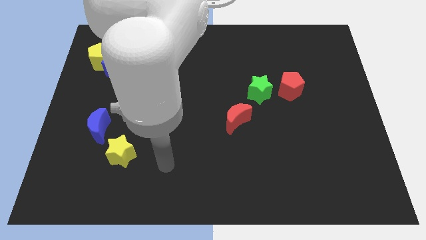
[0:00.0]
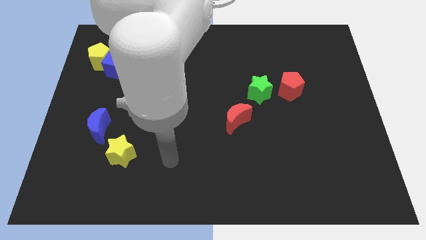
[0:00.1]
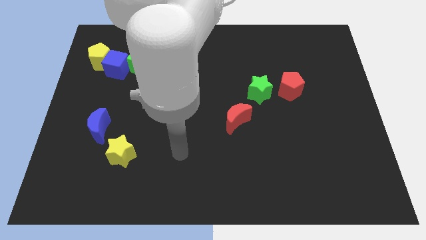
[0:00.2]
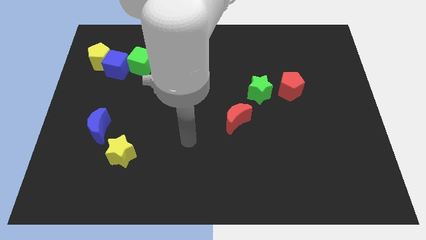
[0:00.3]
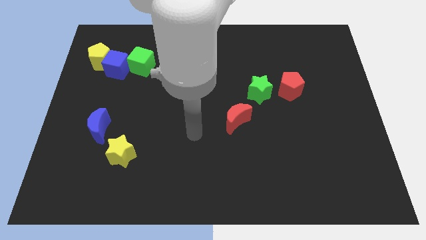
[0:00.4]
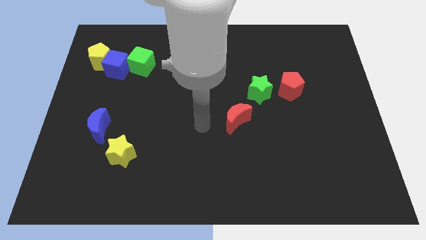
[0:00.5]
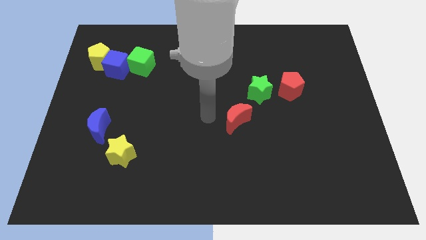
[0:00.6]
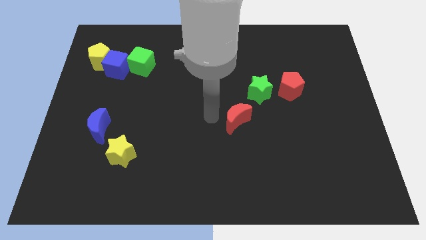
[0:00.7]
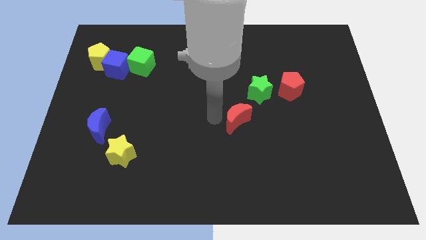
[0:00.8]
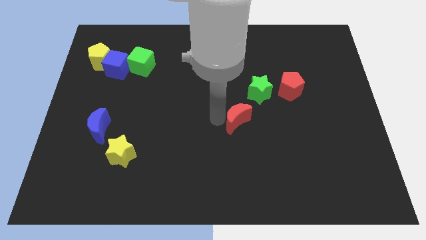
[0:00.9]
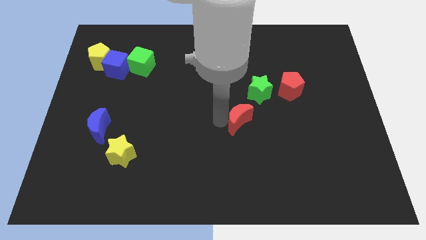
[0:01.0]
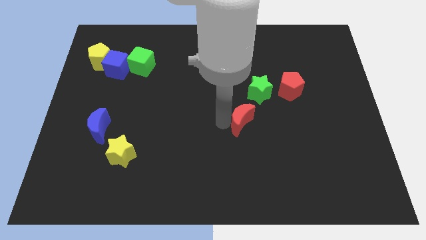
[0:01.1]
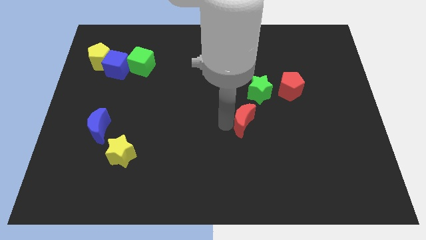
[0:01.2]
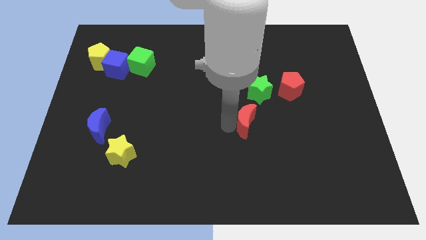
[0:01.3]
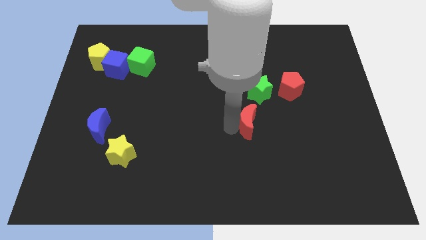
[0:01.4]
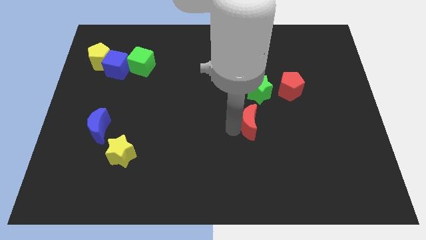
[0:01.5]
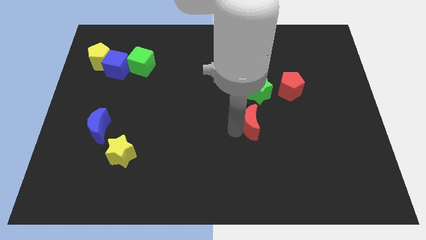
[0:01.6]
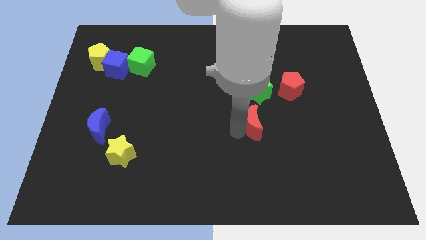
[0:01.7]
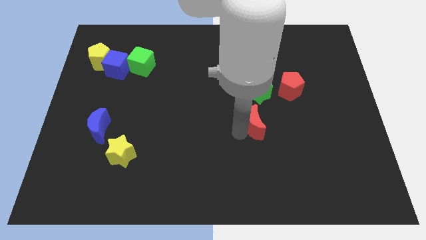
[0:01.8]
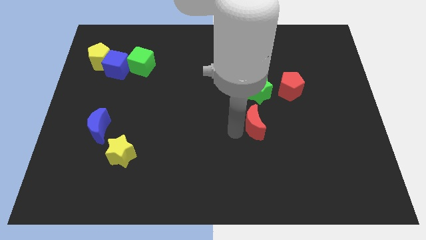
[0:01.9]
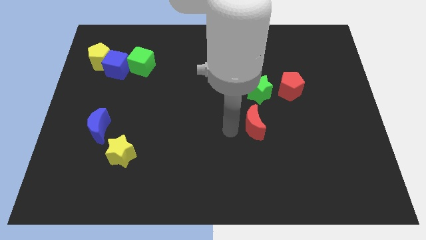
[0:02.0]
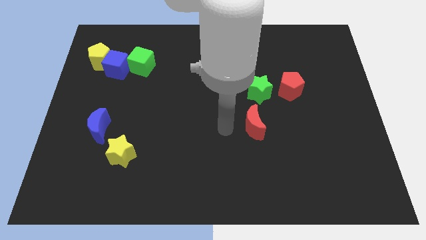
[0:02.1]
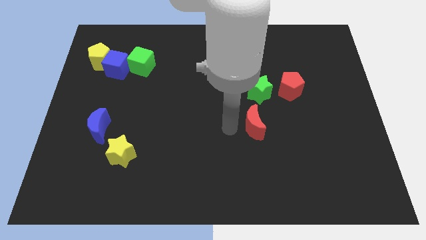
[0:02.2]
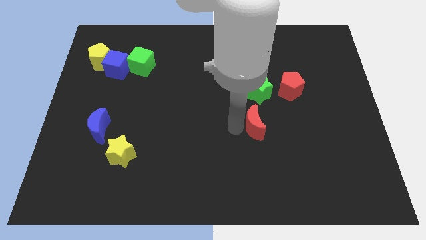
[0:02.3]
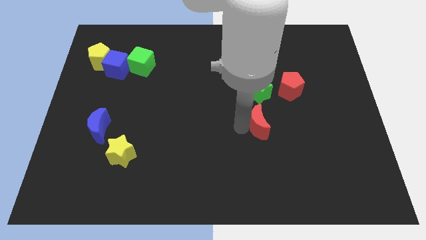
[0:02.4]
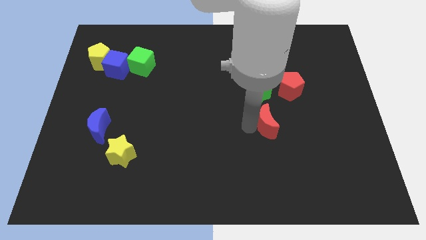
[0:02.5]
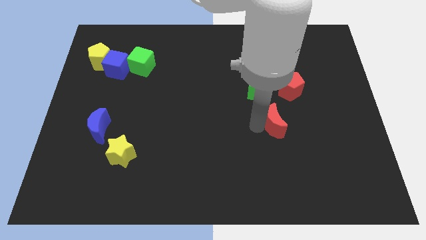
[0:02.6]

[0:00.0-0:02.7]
slide the red moon a little bit to the right

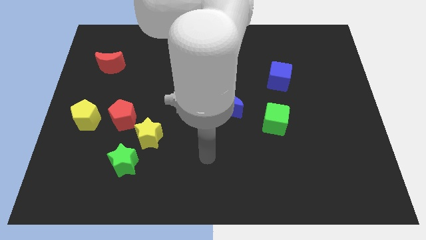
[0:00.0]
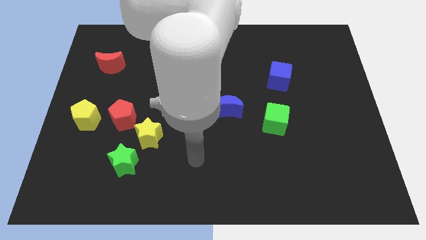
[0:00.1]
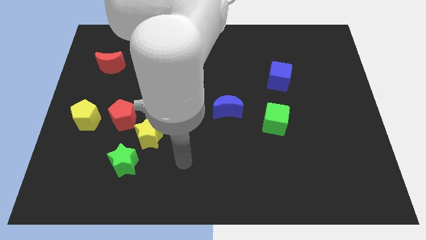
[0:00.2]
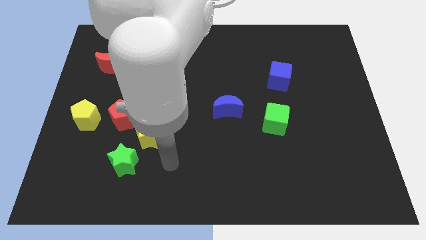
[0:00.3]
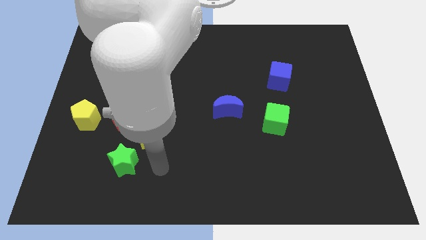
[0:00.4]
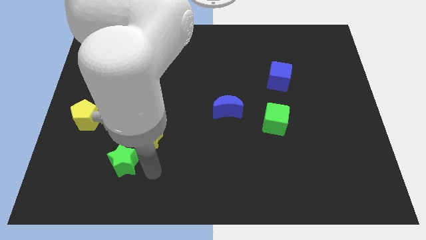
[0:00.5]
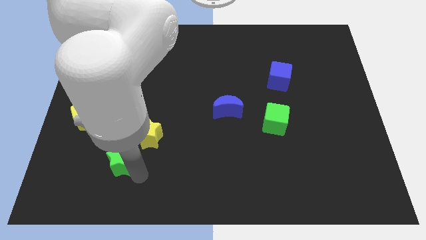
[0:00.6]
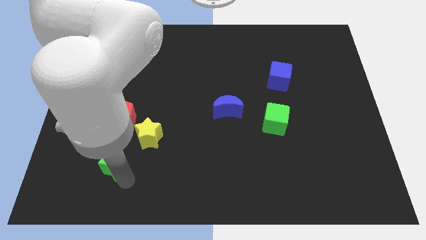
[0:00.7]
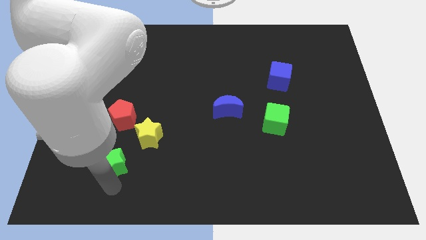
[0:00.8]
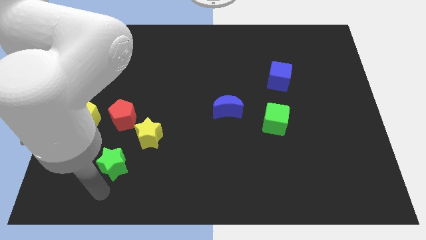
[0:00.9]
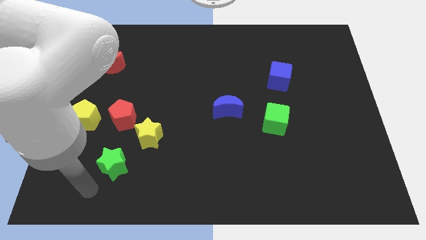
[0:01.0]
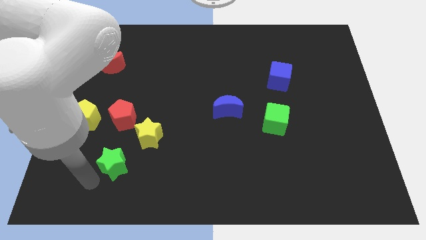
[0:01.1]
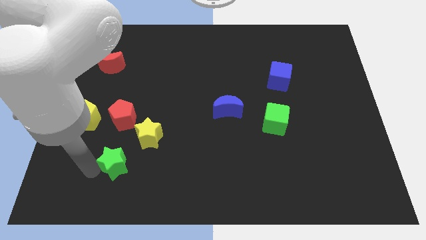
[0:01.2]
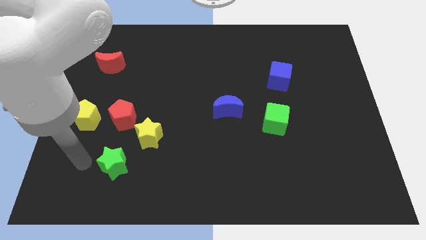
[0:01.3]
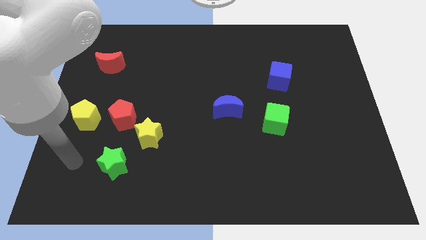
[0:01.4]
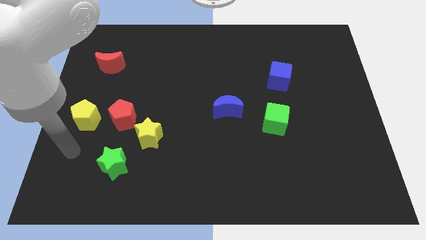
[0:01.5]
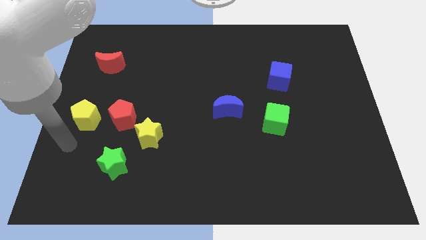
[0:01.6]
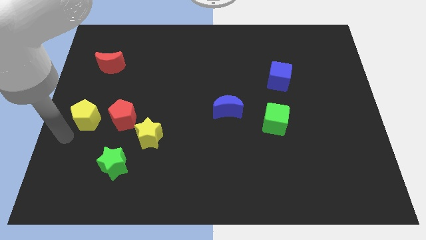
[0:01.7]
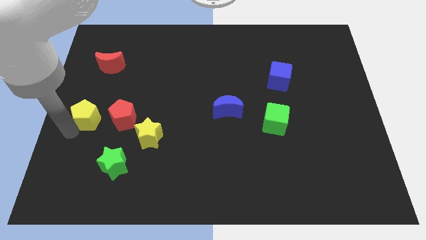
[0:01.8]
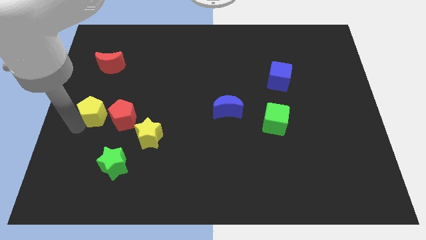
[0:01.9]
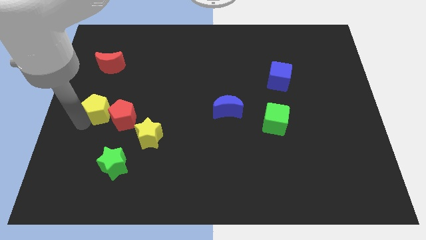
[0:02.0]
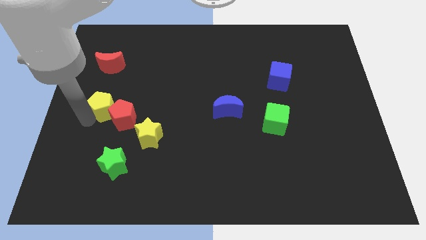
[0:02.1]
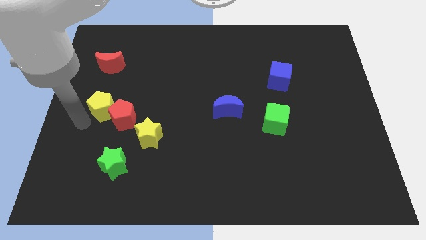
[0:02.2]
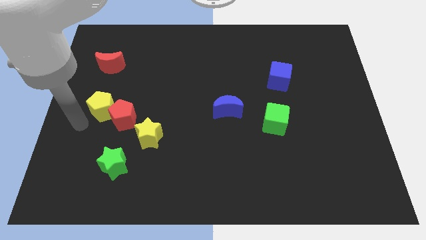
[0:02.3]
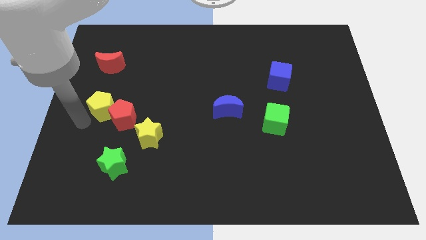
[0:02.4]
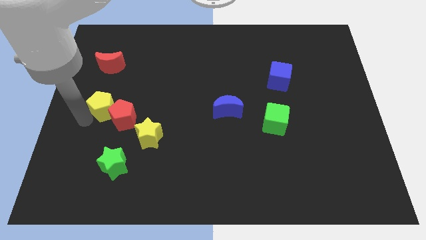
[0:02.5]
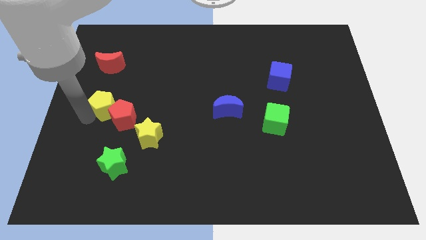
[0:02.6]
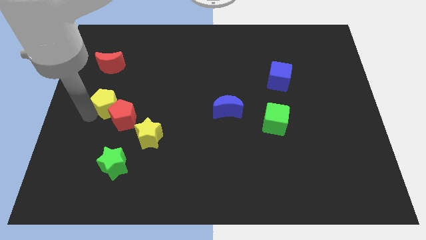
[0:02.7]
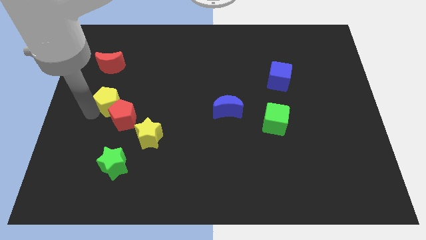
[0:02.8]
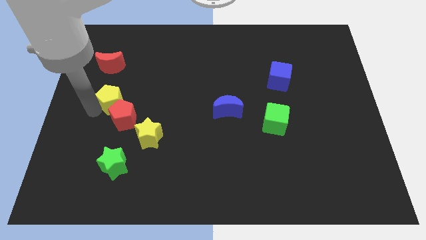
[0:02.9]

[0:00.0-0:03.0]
move the yellow pentagon up and to the right a little bit

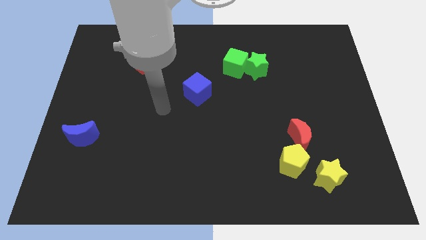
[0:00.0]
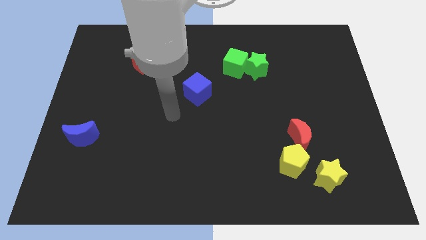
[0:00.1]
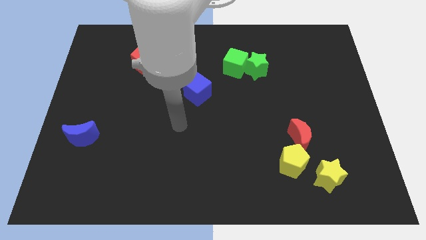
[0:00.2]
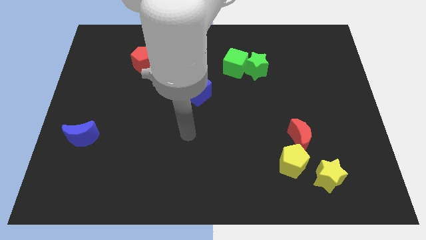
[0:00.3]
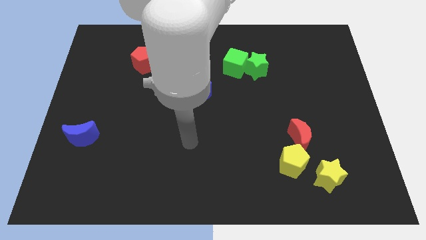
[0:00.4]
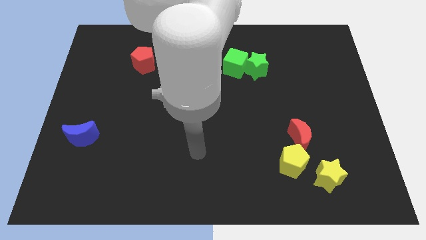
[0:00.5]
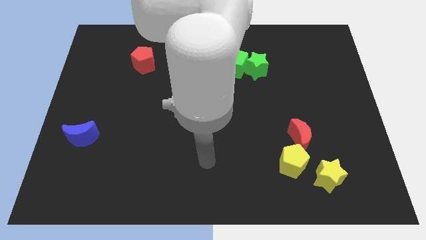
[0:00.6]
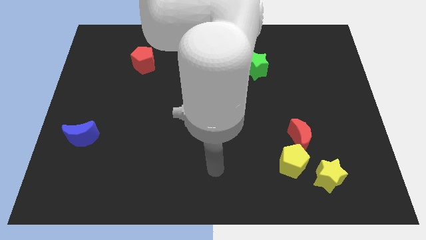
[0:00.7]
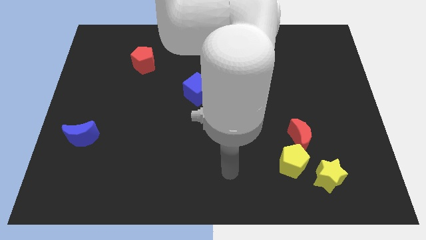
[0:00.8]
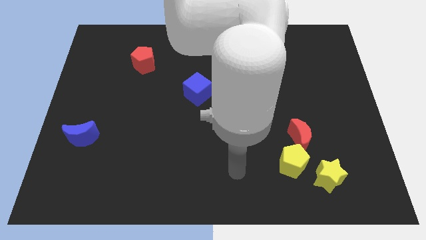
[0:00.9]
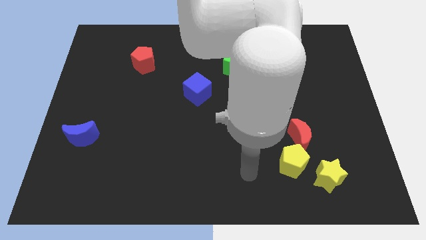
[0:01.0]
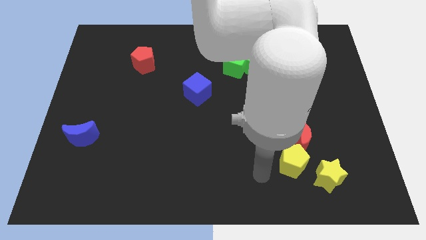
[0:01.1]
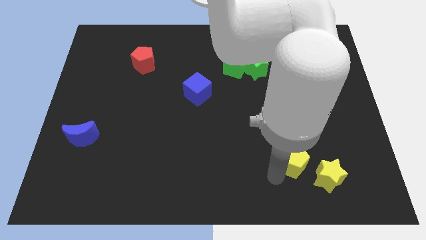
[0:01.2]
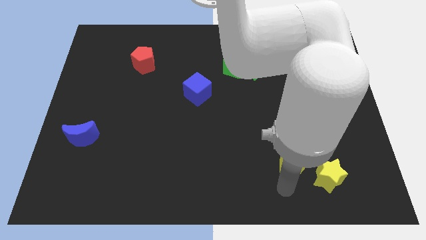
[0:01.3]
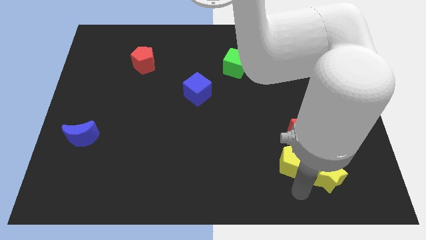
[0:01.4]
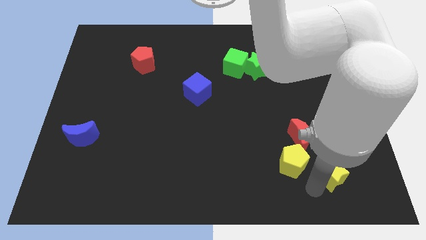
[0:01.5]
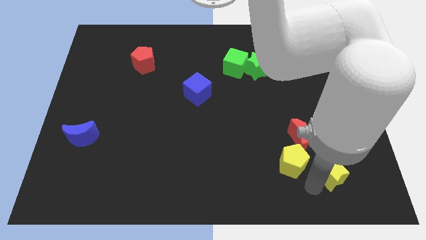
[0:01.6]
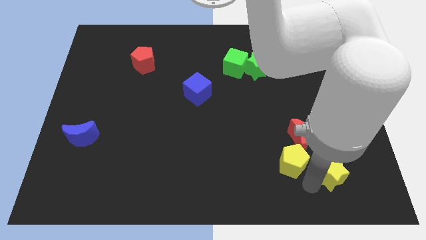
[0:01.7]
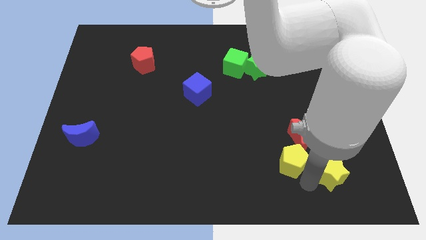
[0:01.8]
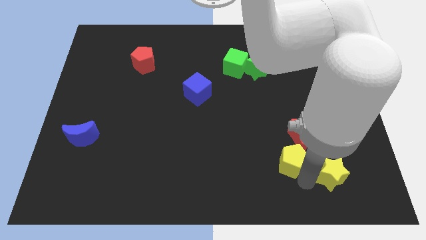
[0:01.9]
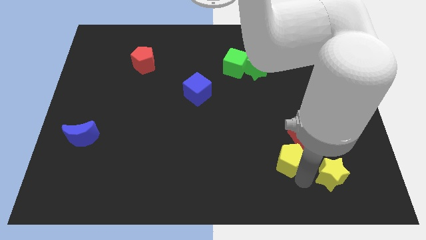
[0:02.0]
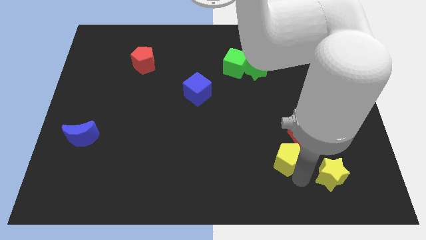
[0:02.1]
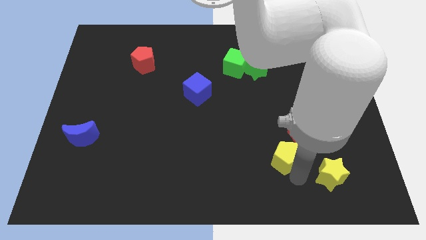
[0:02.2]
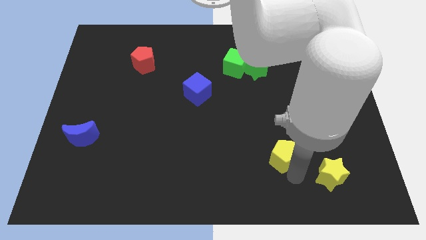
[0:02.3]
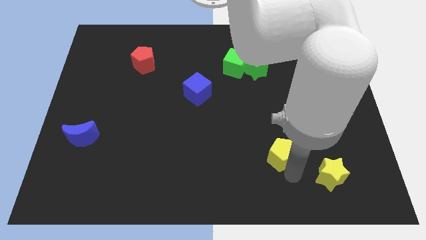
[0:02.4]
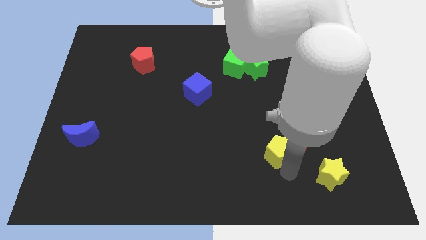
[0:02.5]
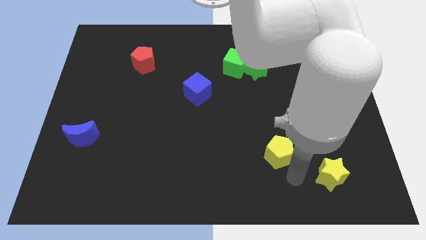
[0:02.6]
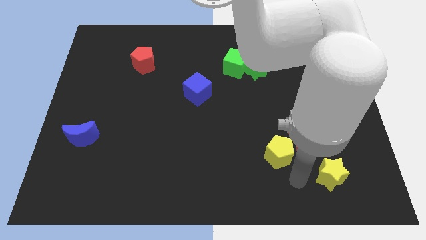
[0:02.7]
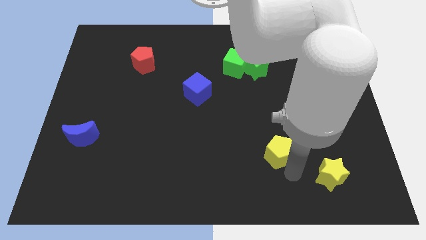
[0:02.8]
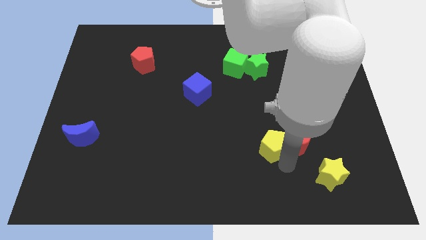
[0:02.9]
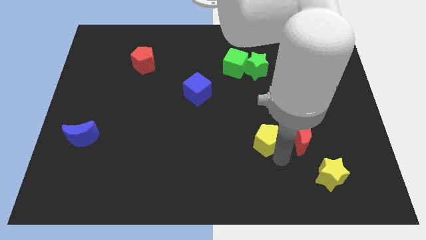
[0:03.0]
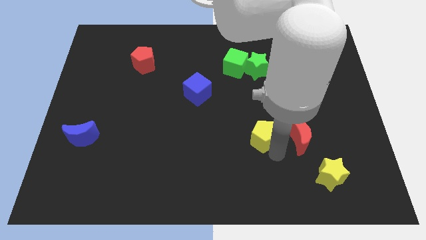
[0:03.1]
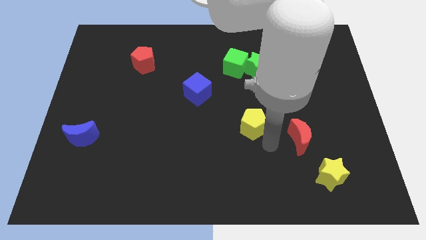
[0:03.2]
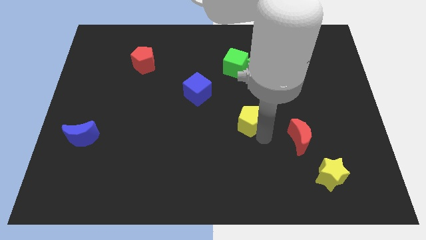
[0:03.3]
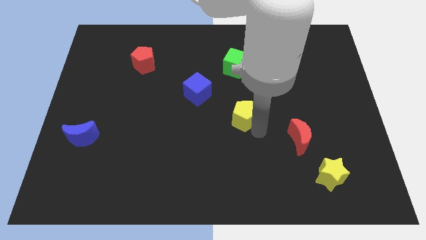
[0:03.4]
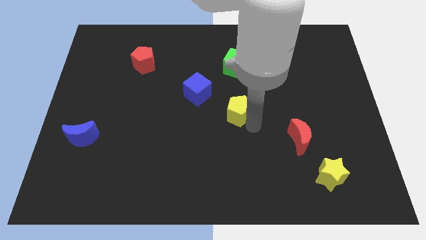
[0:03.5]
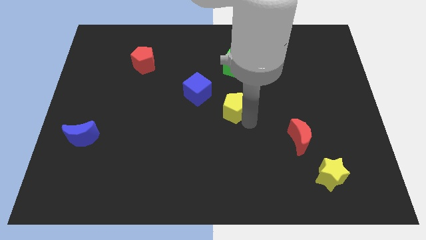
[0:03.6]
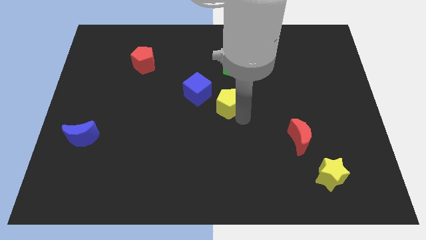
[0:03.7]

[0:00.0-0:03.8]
move the yellow pentagon diagonally up and left
